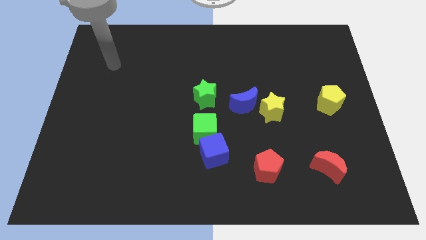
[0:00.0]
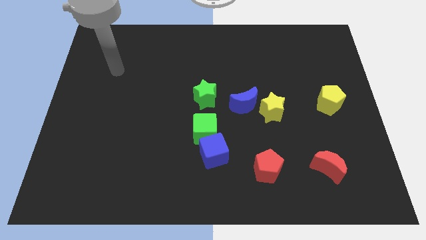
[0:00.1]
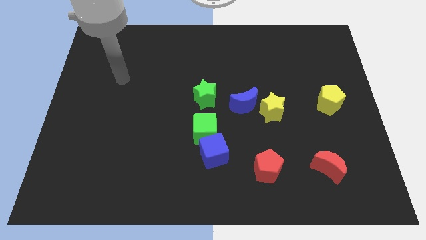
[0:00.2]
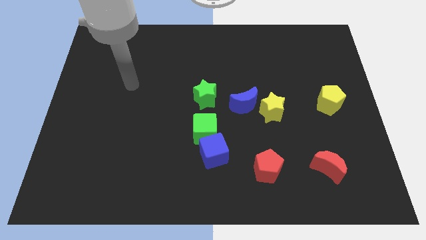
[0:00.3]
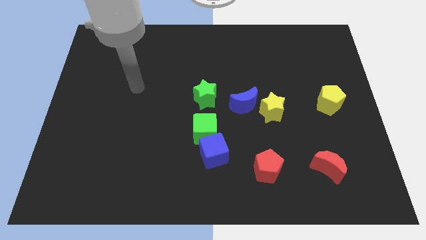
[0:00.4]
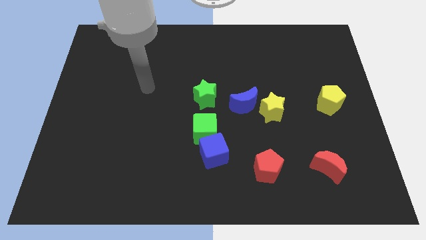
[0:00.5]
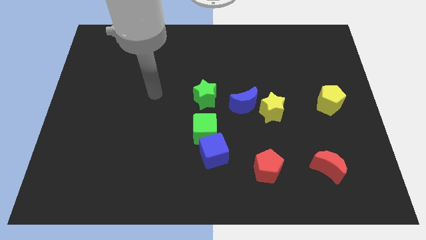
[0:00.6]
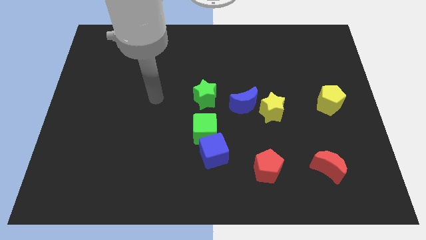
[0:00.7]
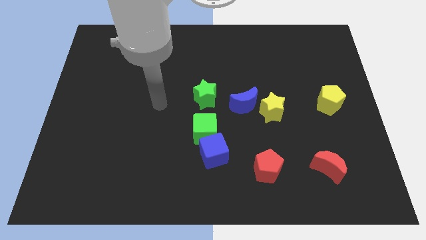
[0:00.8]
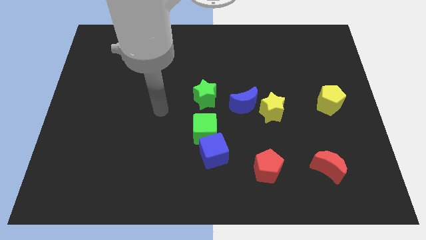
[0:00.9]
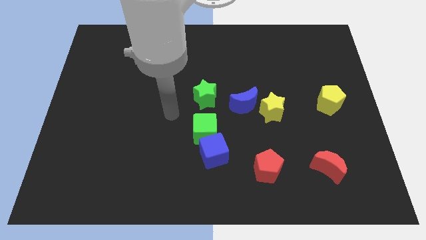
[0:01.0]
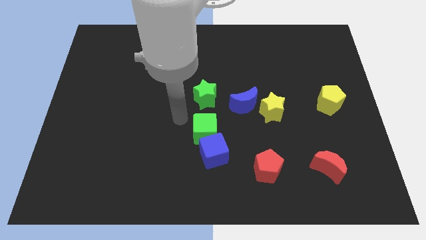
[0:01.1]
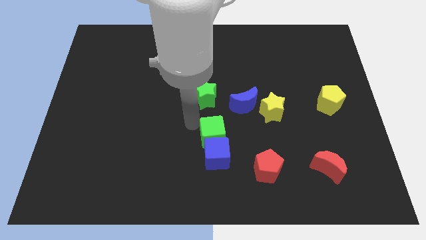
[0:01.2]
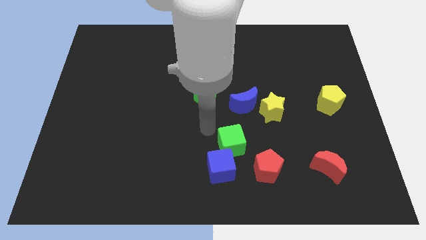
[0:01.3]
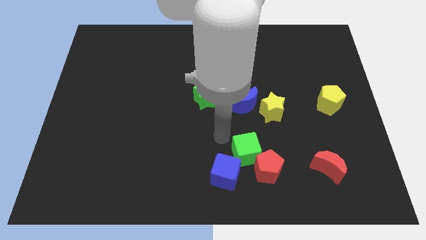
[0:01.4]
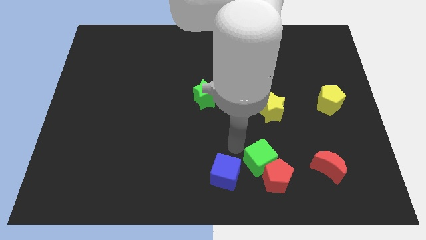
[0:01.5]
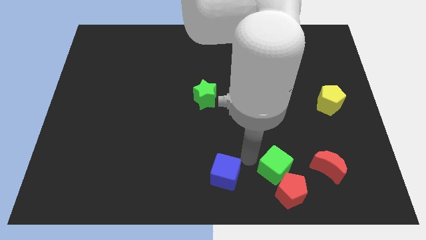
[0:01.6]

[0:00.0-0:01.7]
move the blue cube away from the green cube

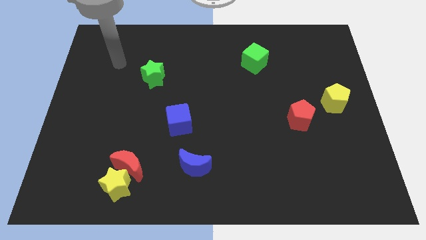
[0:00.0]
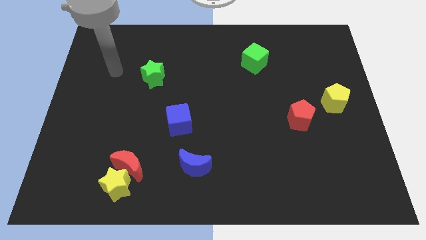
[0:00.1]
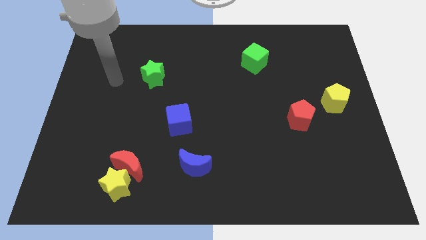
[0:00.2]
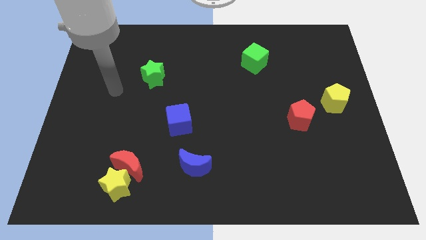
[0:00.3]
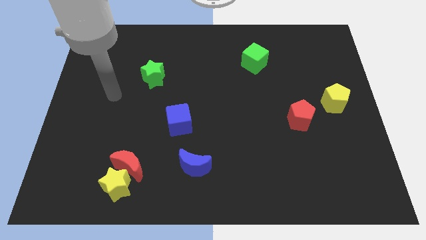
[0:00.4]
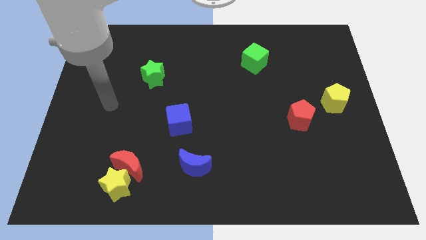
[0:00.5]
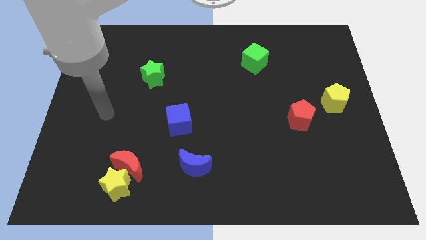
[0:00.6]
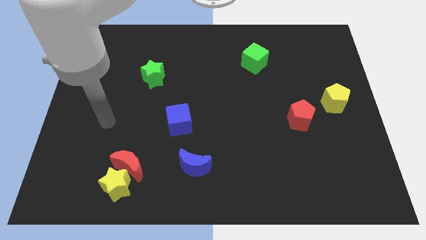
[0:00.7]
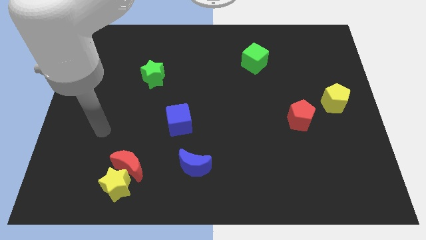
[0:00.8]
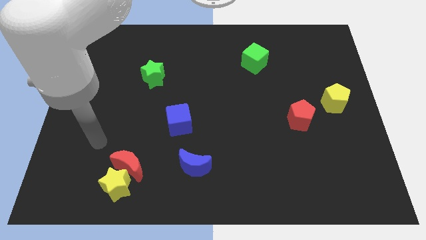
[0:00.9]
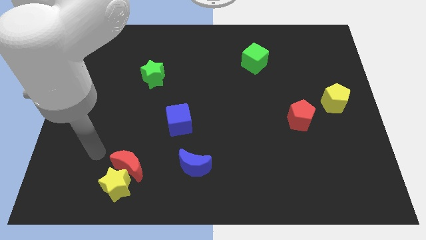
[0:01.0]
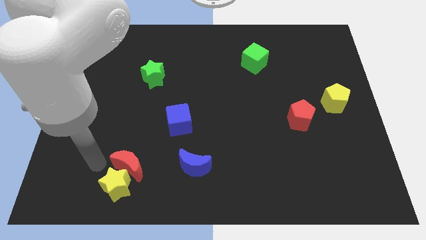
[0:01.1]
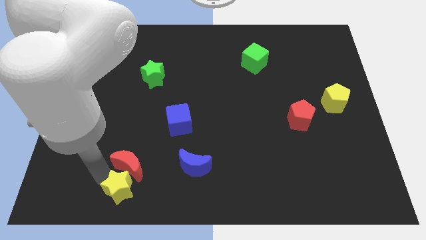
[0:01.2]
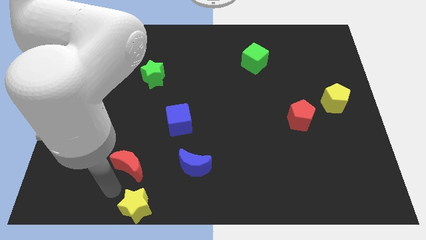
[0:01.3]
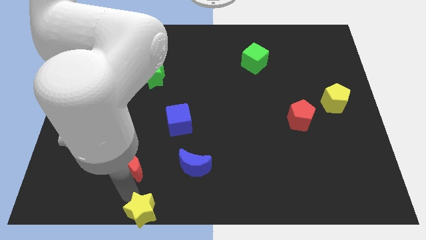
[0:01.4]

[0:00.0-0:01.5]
move the red moon away from the yellow star

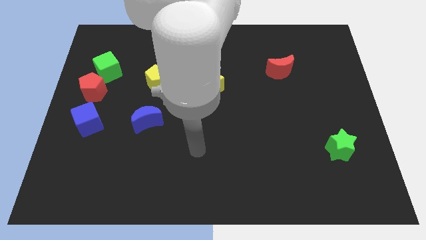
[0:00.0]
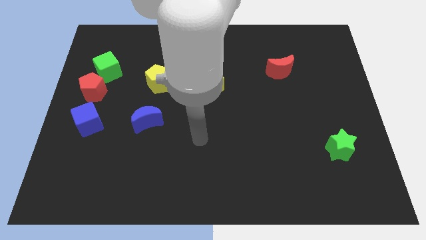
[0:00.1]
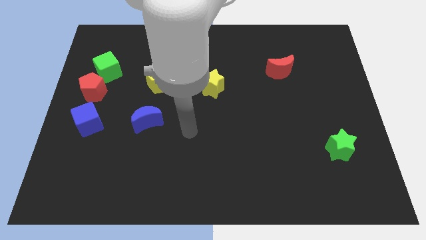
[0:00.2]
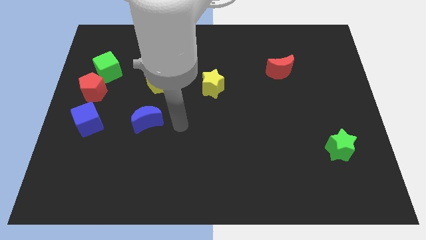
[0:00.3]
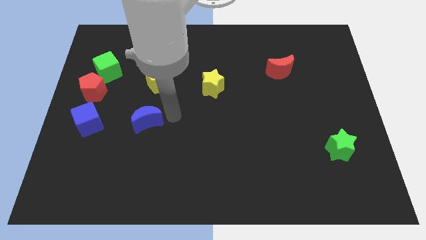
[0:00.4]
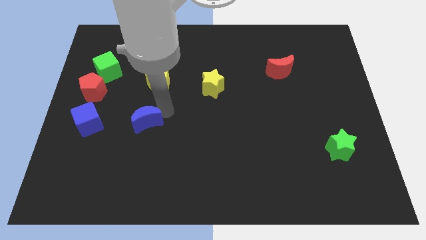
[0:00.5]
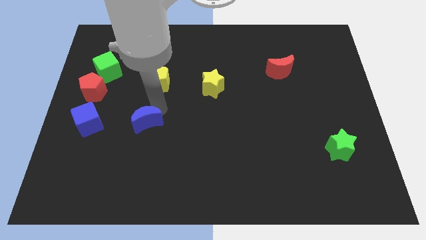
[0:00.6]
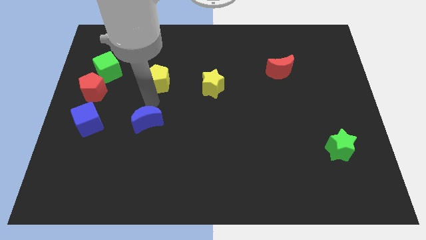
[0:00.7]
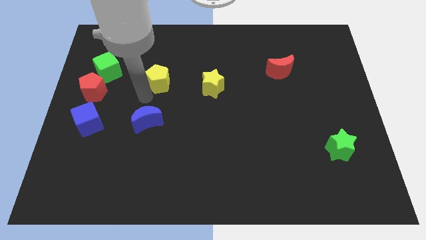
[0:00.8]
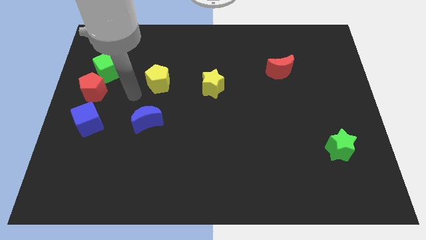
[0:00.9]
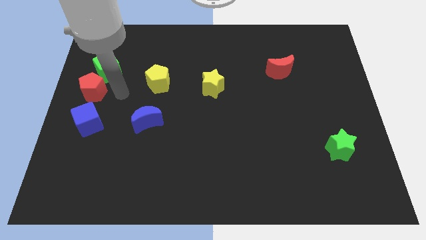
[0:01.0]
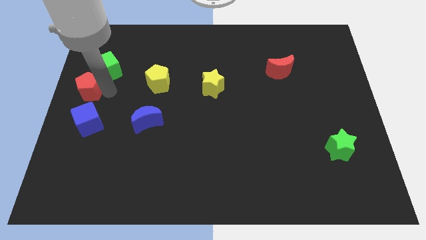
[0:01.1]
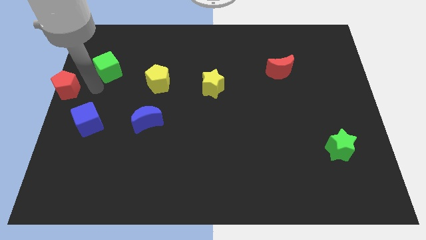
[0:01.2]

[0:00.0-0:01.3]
pull the green cube apart from the red pentagon

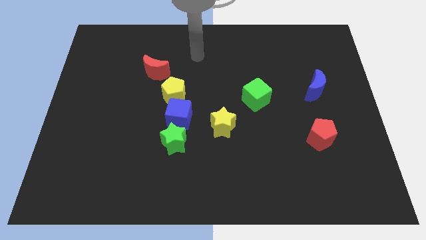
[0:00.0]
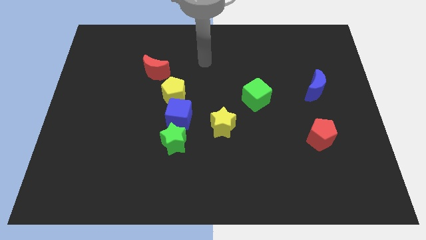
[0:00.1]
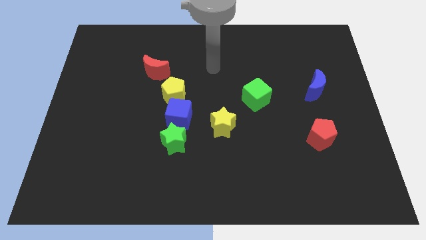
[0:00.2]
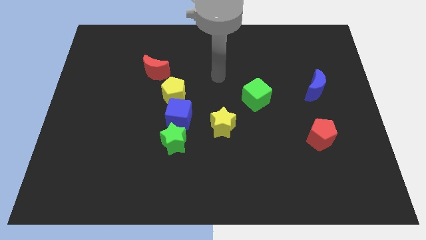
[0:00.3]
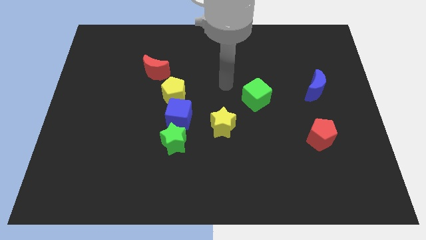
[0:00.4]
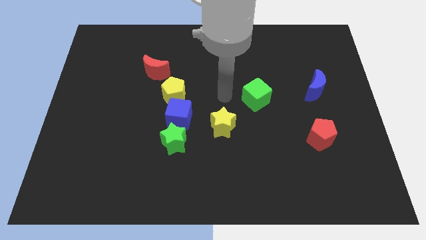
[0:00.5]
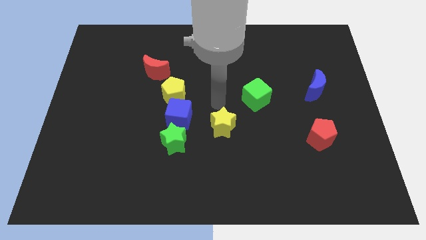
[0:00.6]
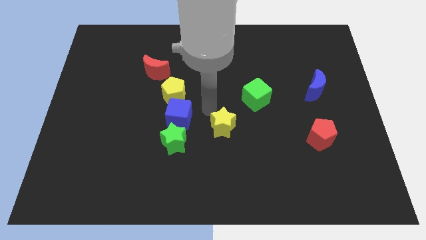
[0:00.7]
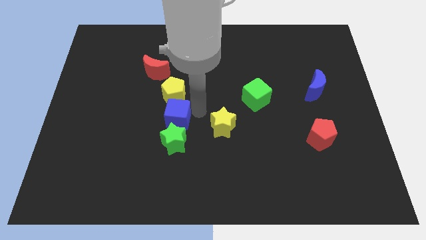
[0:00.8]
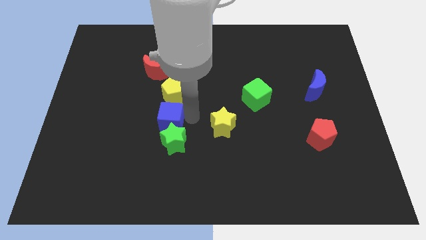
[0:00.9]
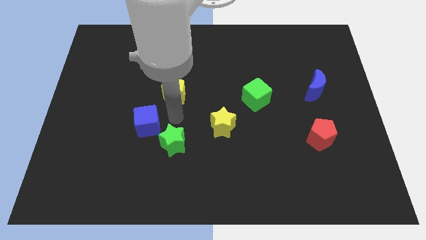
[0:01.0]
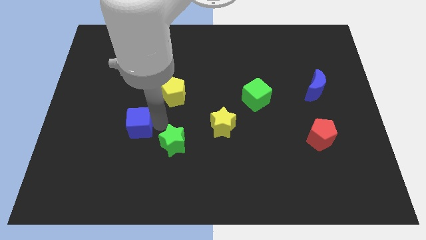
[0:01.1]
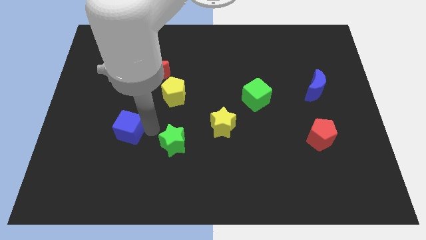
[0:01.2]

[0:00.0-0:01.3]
move the green star away from the blue cube

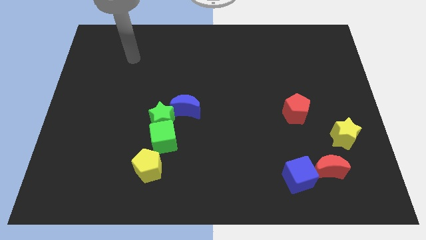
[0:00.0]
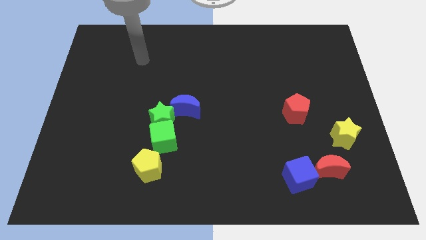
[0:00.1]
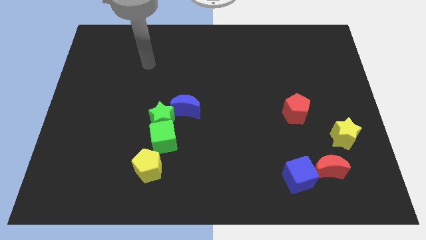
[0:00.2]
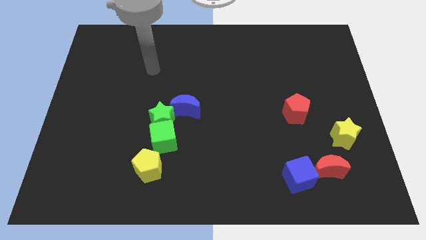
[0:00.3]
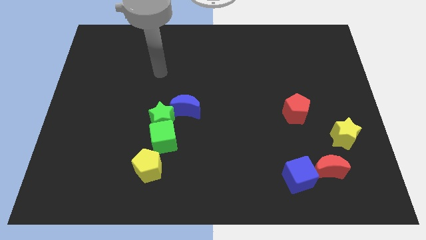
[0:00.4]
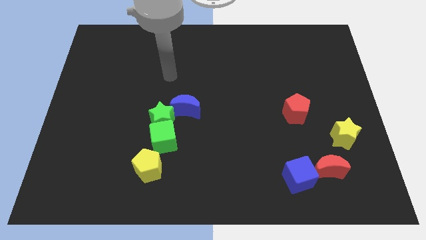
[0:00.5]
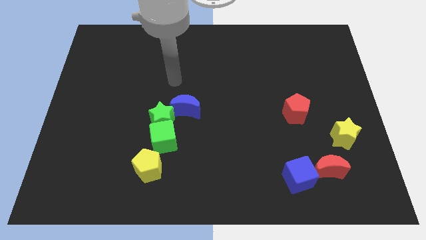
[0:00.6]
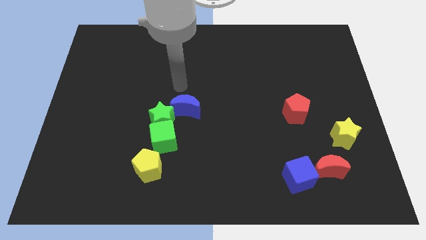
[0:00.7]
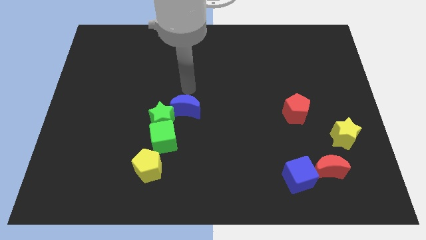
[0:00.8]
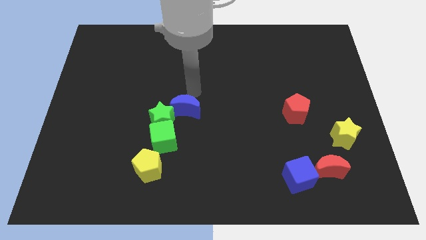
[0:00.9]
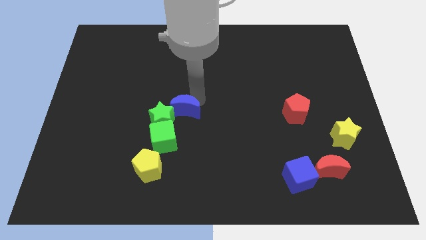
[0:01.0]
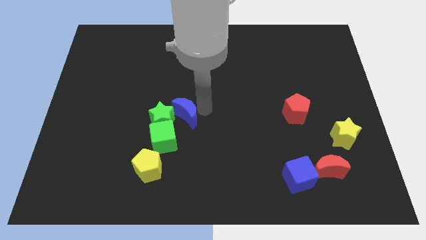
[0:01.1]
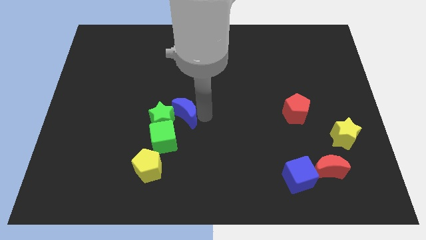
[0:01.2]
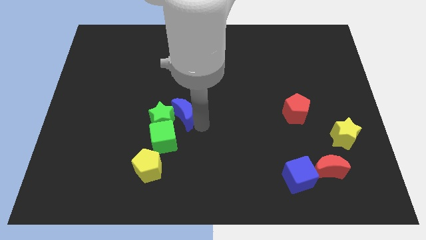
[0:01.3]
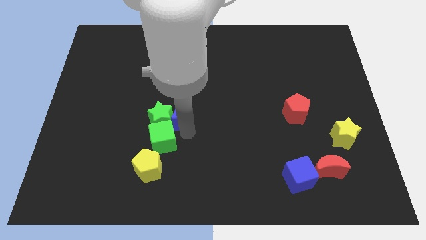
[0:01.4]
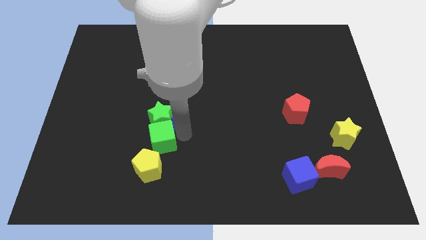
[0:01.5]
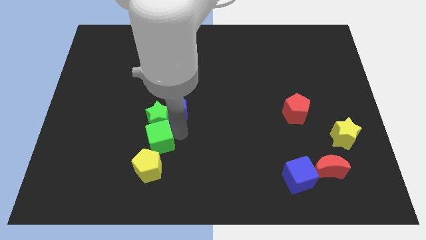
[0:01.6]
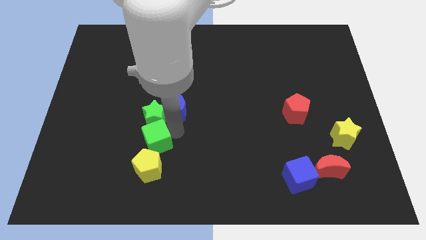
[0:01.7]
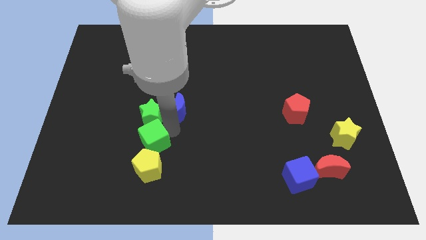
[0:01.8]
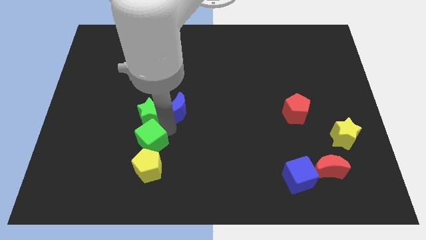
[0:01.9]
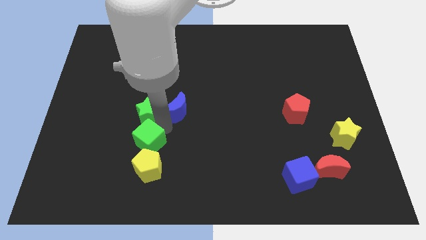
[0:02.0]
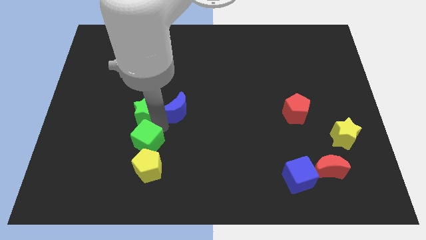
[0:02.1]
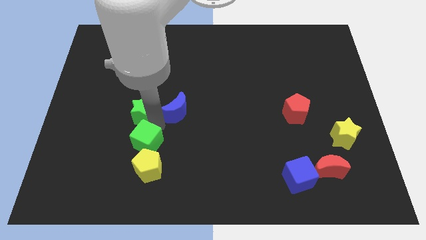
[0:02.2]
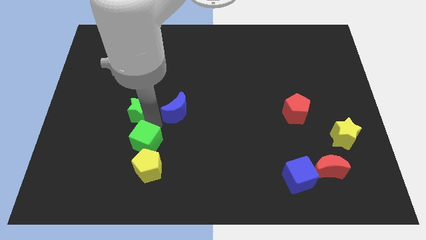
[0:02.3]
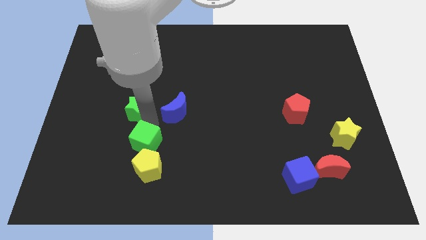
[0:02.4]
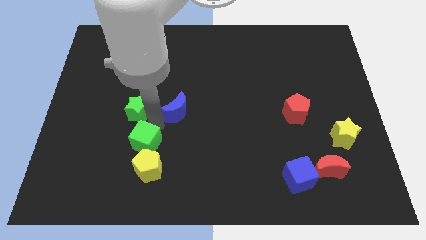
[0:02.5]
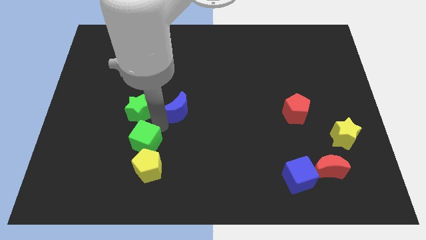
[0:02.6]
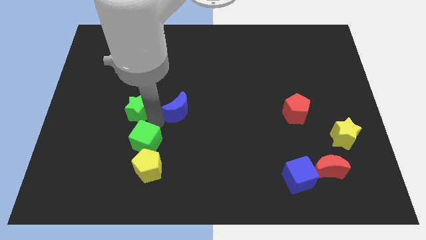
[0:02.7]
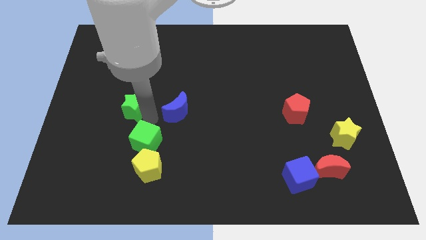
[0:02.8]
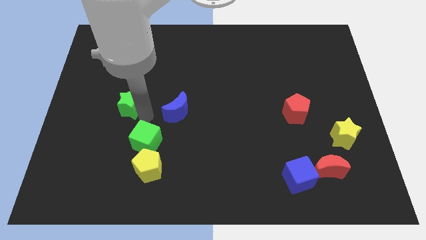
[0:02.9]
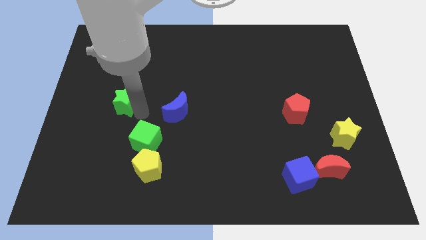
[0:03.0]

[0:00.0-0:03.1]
separate the green star from the green cube and blue moon

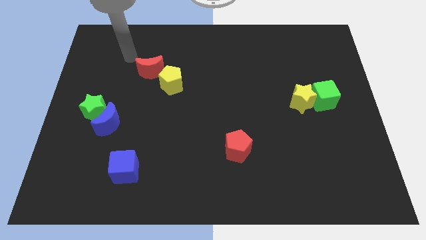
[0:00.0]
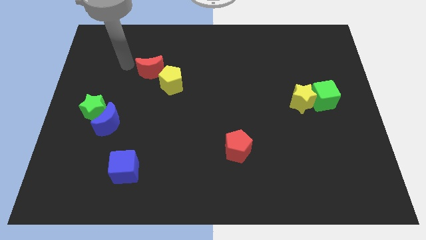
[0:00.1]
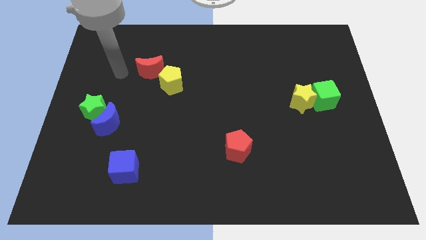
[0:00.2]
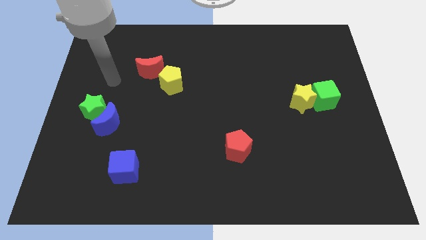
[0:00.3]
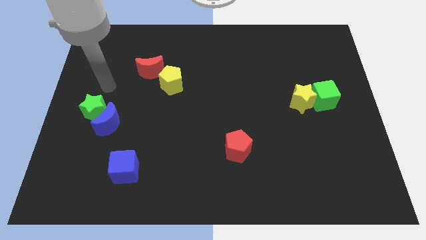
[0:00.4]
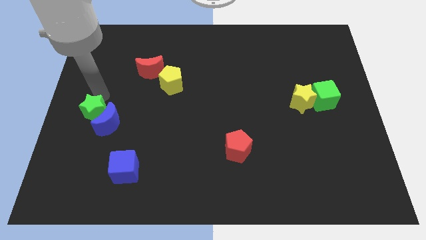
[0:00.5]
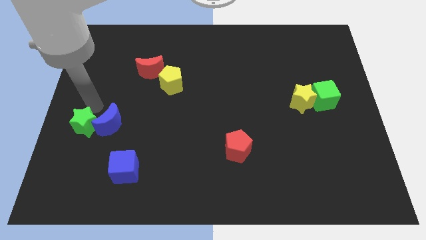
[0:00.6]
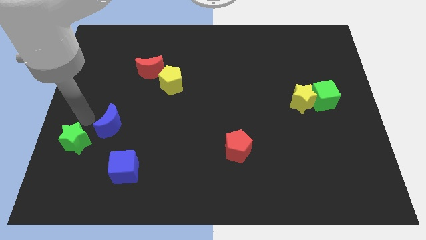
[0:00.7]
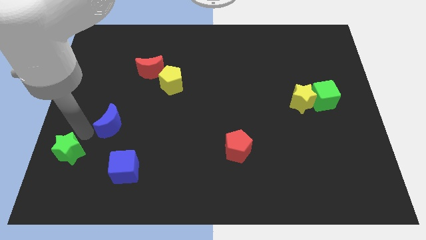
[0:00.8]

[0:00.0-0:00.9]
pull the blue moon apart from the green star
